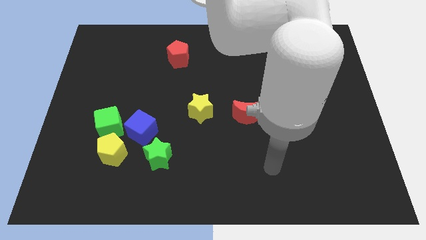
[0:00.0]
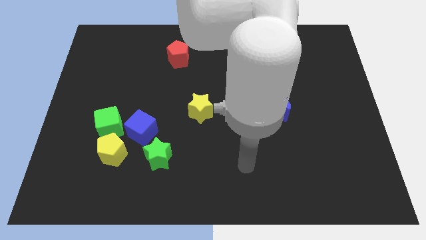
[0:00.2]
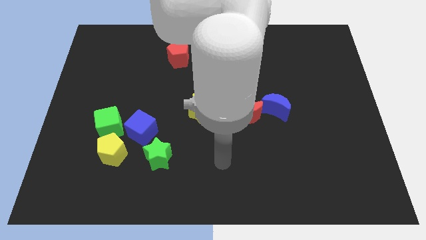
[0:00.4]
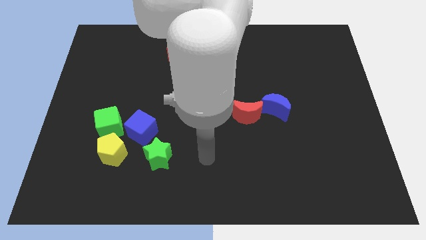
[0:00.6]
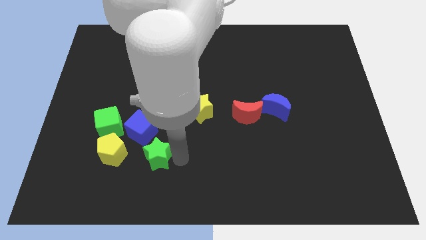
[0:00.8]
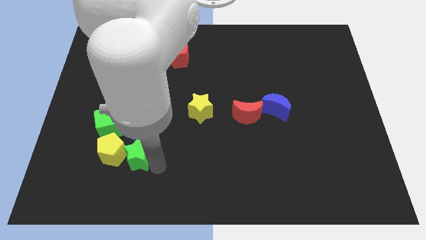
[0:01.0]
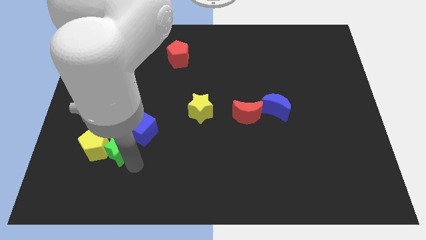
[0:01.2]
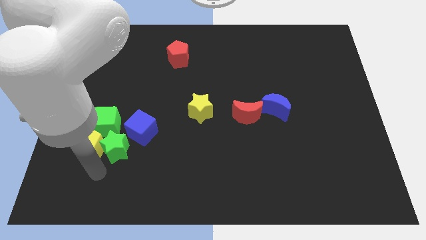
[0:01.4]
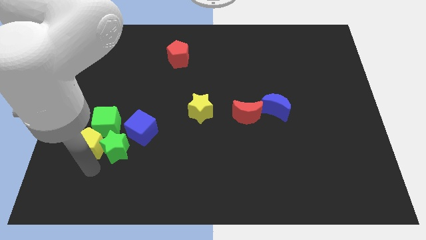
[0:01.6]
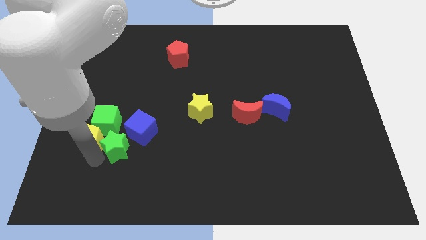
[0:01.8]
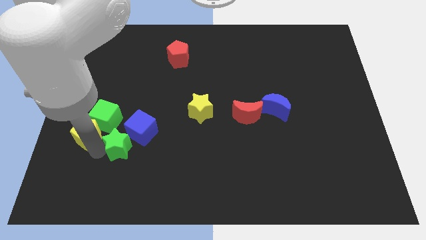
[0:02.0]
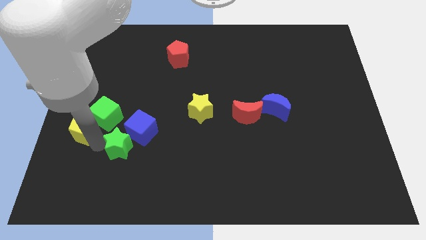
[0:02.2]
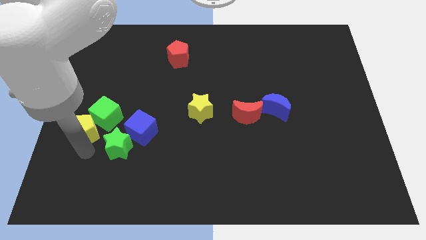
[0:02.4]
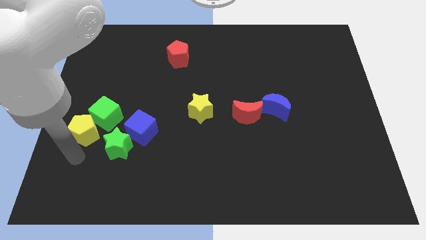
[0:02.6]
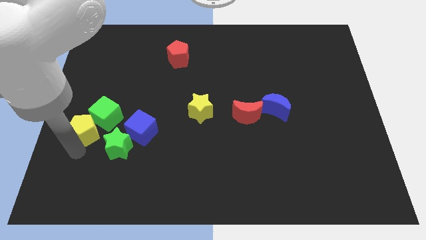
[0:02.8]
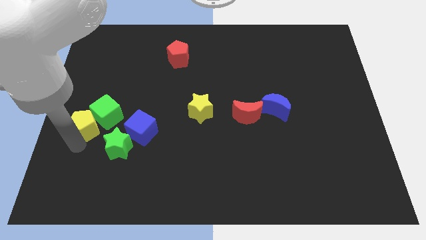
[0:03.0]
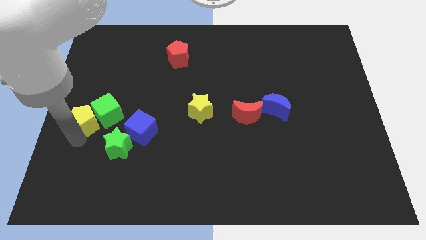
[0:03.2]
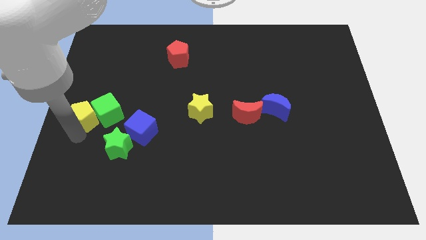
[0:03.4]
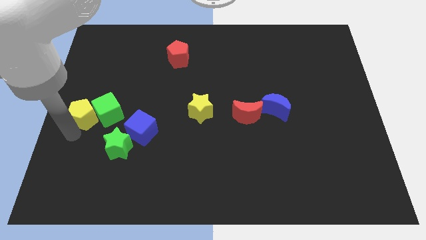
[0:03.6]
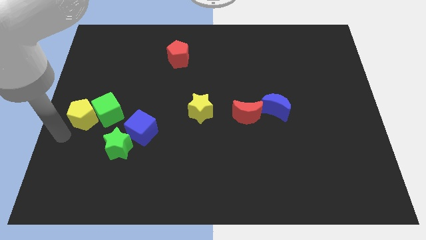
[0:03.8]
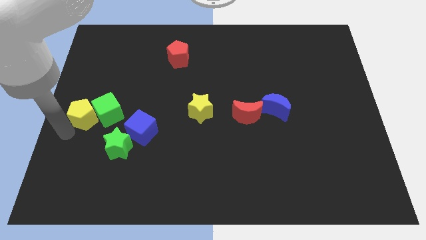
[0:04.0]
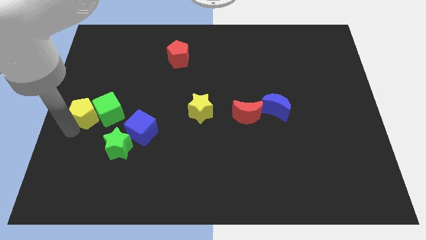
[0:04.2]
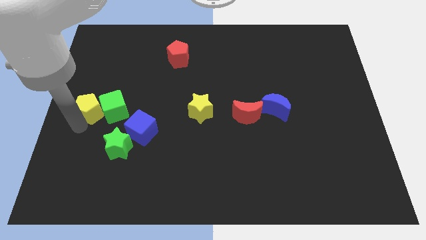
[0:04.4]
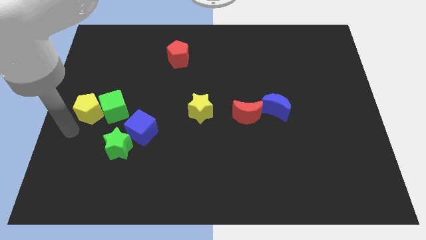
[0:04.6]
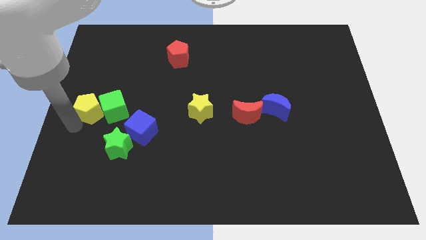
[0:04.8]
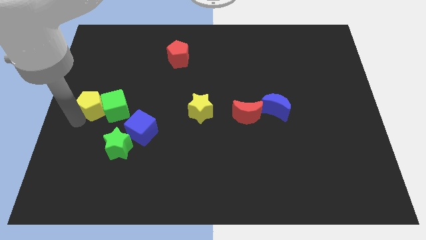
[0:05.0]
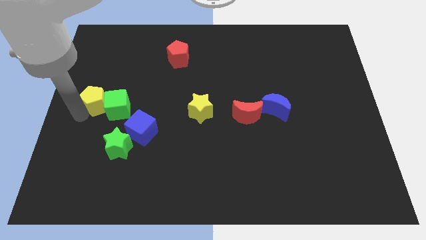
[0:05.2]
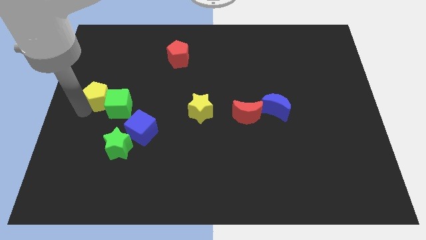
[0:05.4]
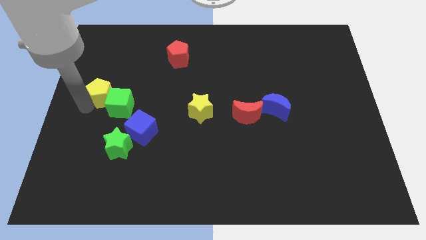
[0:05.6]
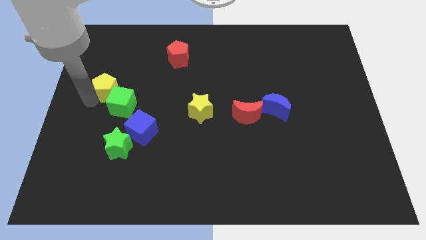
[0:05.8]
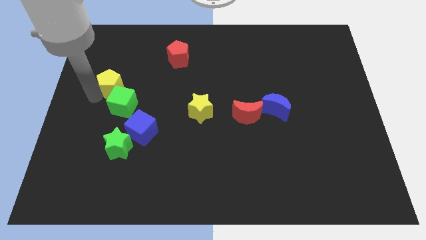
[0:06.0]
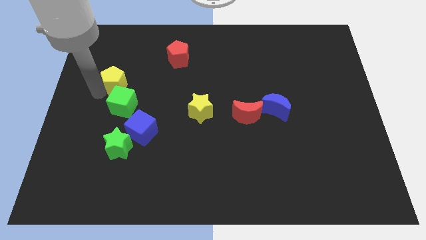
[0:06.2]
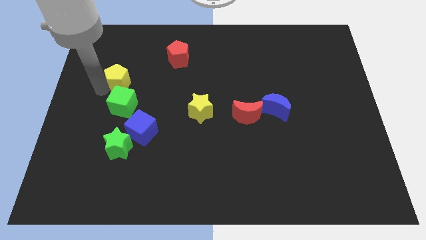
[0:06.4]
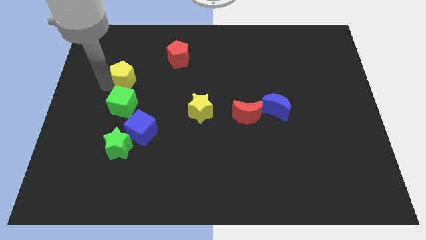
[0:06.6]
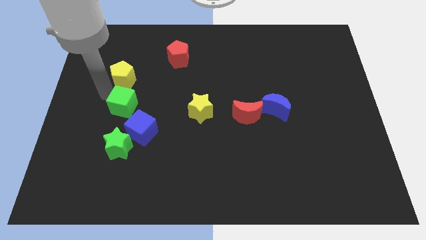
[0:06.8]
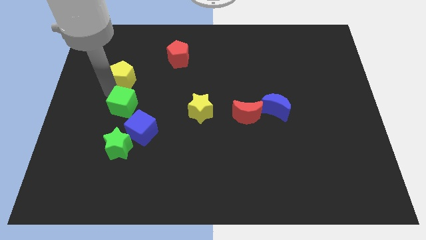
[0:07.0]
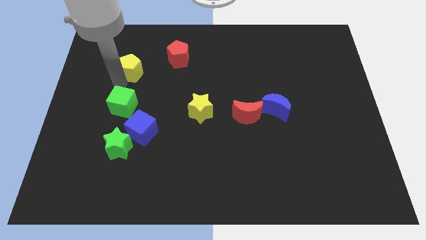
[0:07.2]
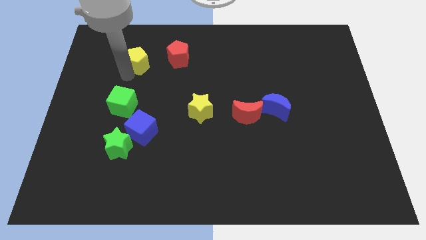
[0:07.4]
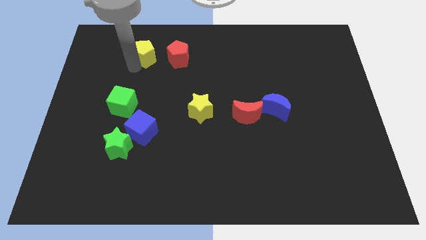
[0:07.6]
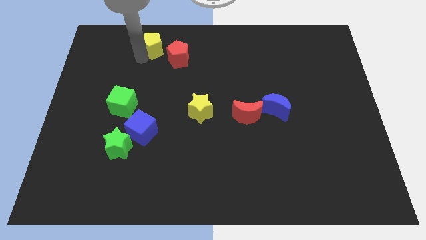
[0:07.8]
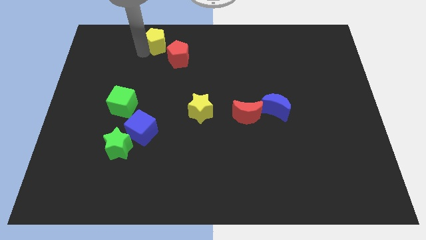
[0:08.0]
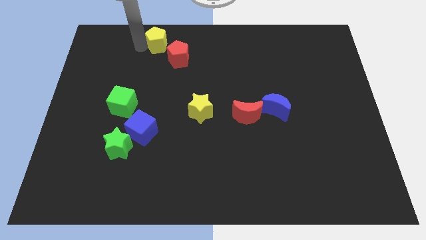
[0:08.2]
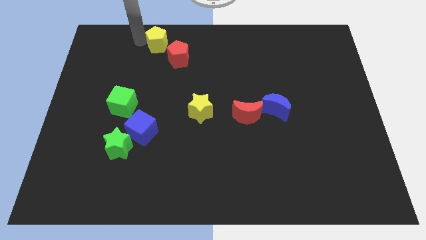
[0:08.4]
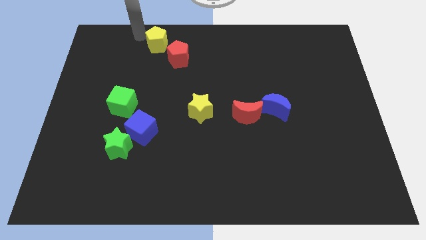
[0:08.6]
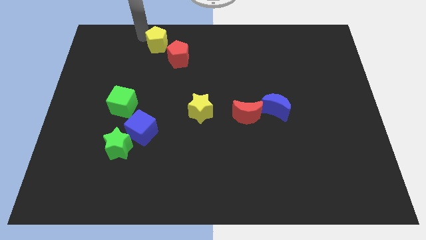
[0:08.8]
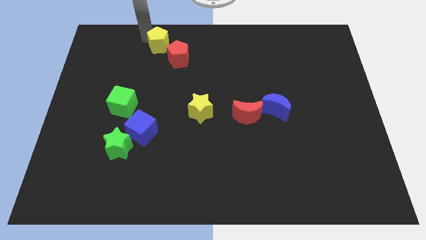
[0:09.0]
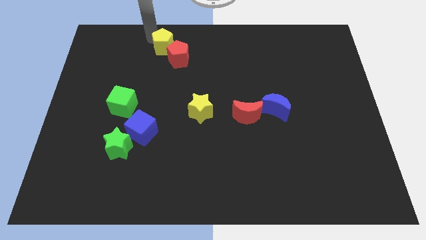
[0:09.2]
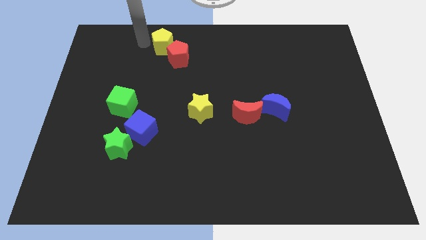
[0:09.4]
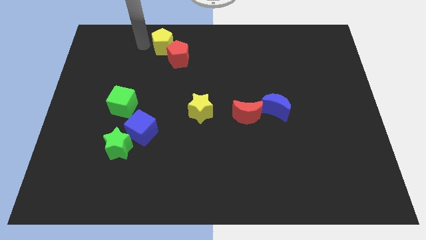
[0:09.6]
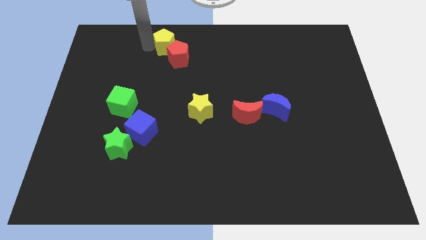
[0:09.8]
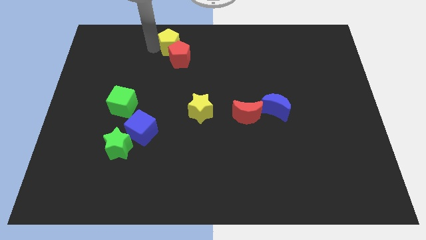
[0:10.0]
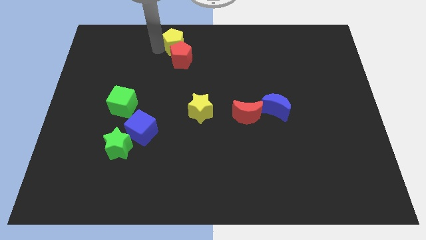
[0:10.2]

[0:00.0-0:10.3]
slide the yellow pentagon to the top

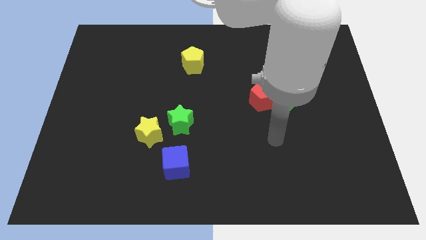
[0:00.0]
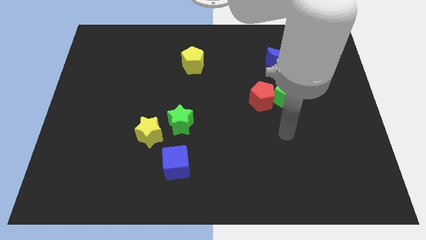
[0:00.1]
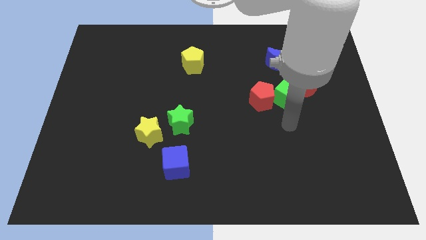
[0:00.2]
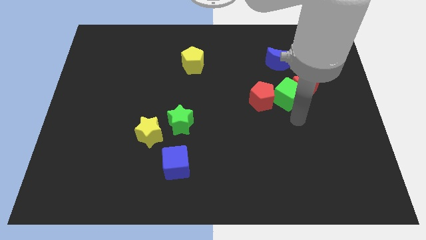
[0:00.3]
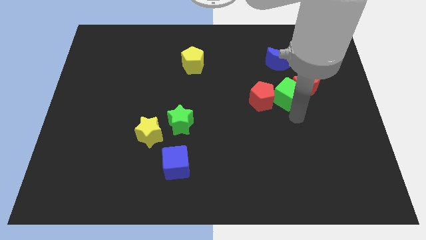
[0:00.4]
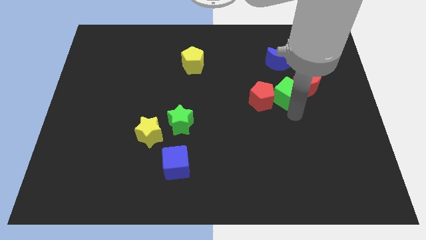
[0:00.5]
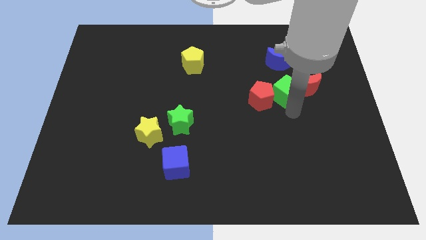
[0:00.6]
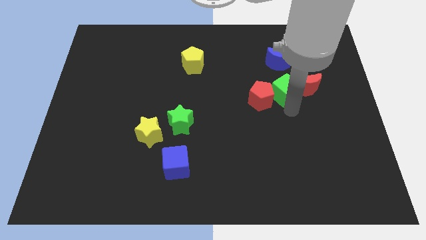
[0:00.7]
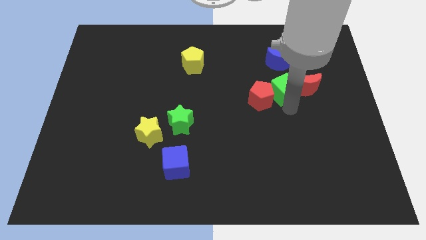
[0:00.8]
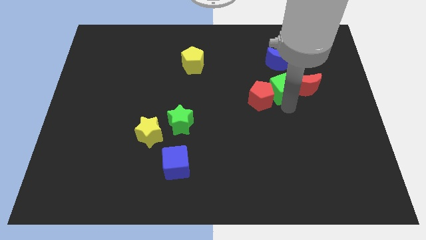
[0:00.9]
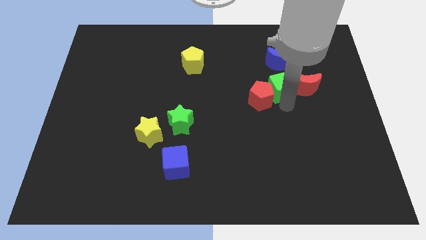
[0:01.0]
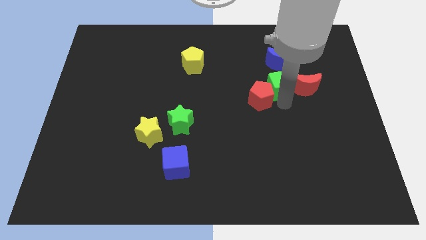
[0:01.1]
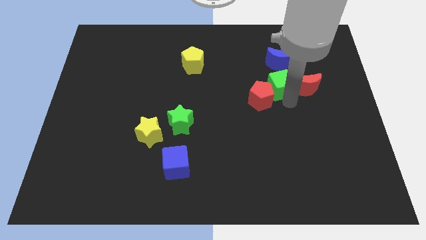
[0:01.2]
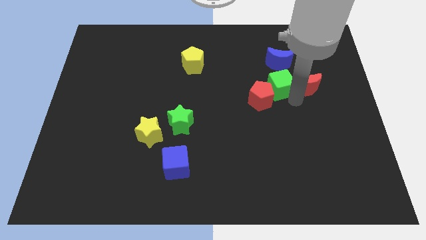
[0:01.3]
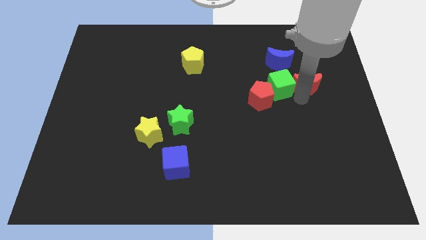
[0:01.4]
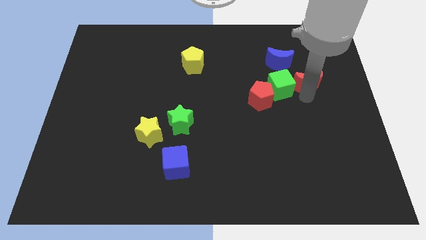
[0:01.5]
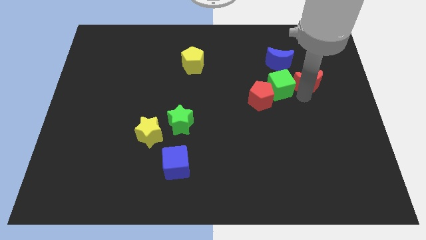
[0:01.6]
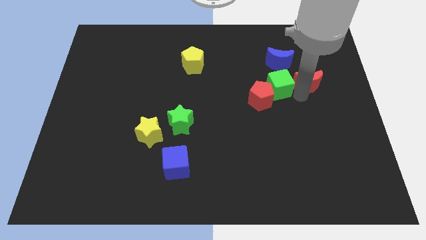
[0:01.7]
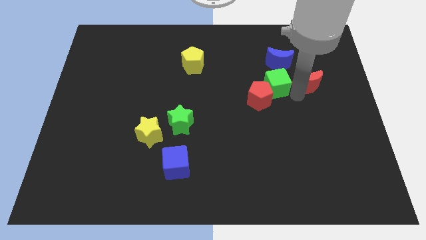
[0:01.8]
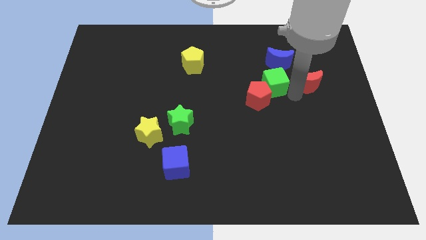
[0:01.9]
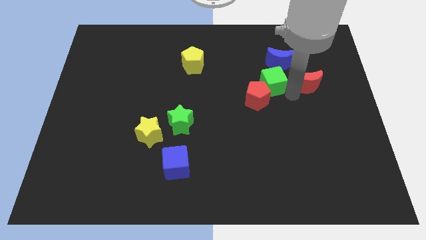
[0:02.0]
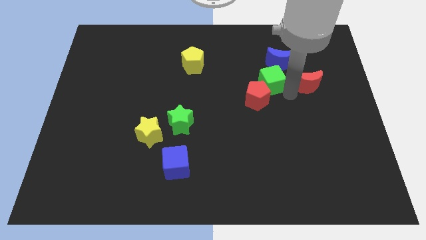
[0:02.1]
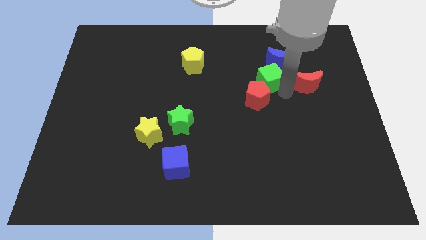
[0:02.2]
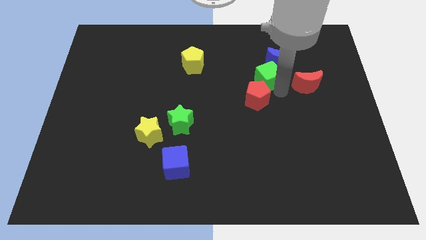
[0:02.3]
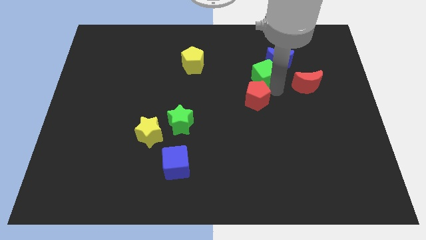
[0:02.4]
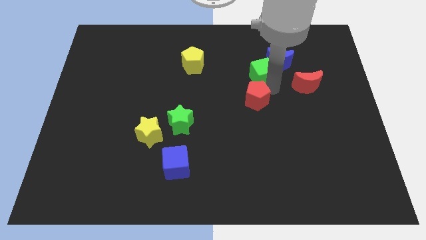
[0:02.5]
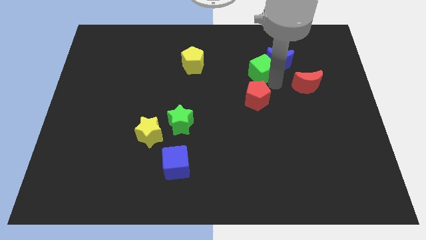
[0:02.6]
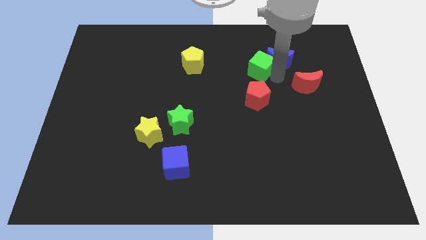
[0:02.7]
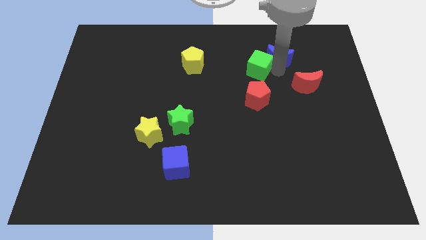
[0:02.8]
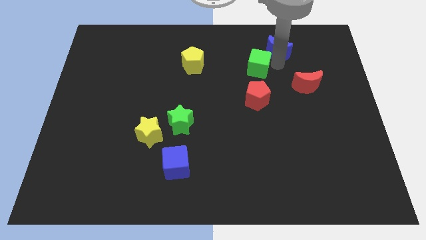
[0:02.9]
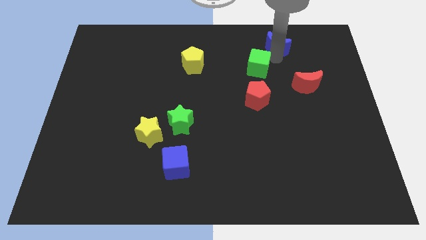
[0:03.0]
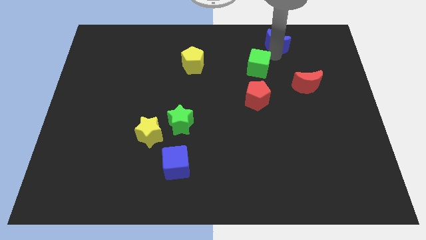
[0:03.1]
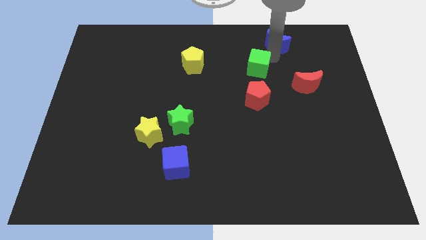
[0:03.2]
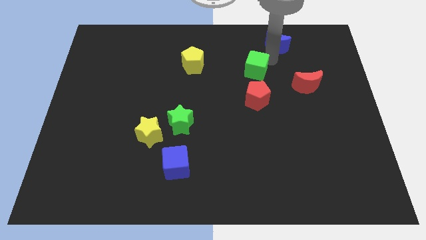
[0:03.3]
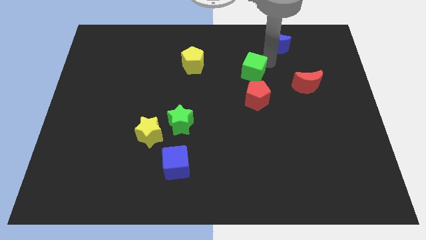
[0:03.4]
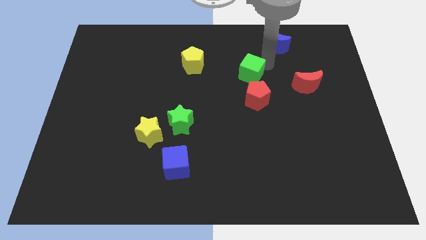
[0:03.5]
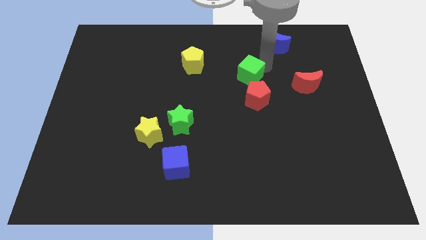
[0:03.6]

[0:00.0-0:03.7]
push the green cube to the middle
